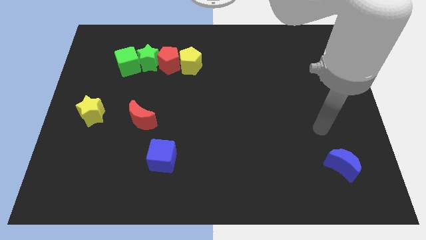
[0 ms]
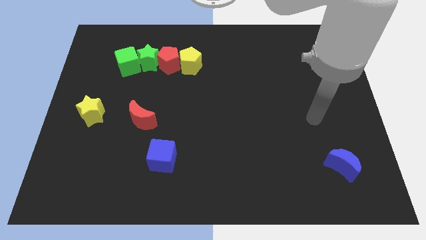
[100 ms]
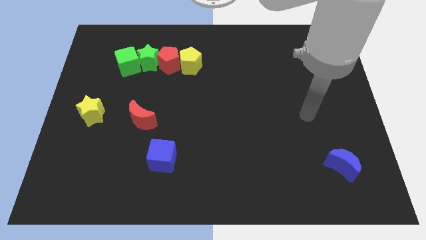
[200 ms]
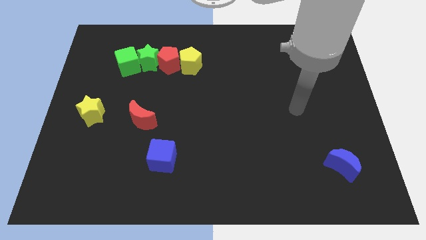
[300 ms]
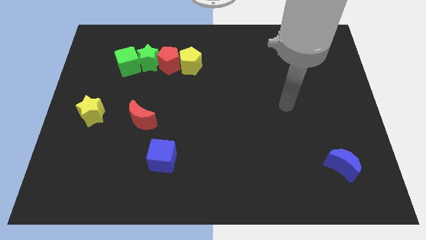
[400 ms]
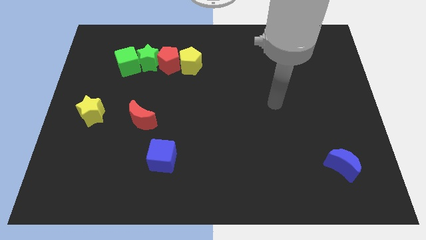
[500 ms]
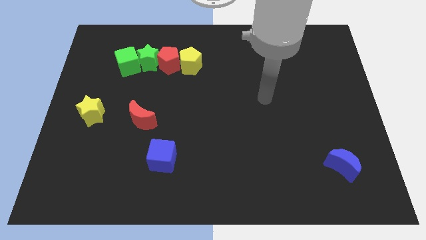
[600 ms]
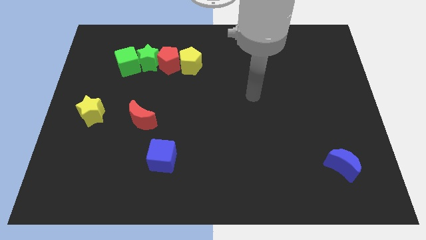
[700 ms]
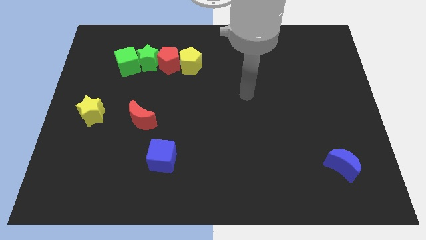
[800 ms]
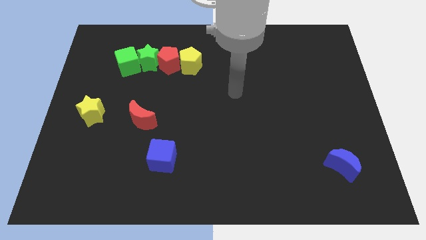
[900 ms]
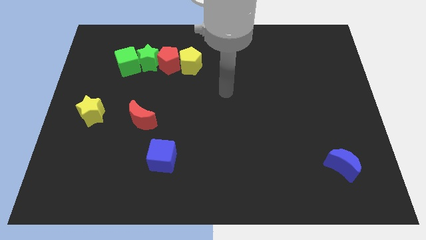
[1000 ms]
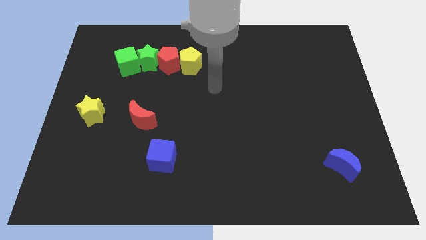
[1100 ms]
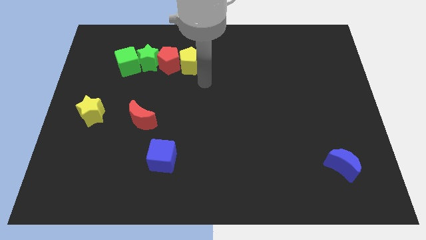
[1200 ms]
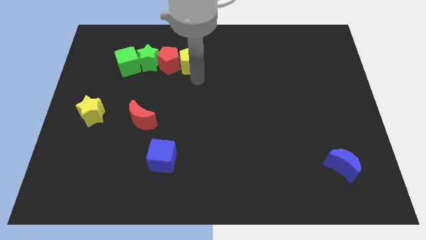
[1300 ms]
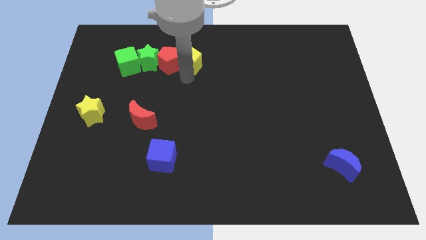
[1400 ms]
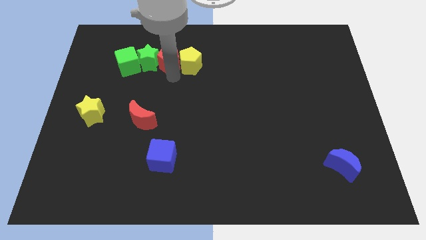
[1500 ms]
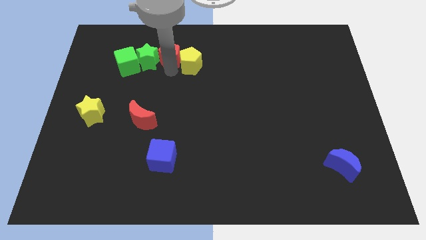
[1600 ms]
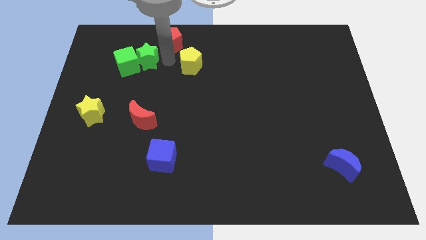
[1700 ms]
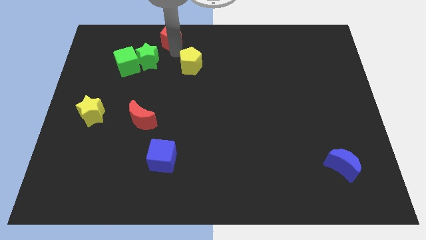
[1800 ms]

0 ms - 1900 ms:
pull the yellow pentagon apart from the red pentagon

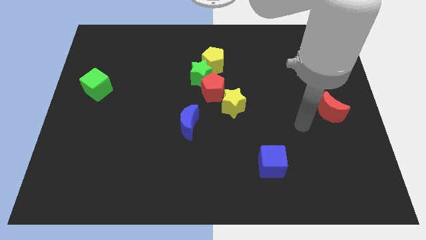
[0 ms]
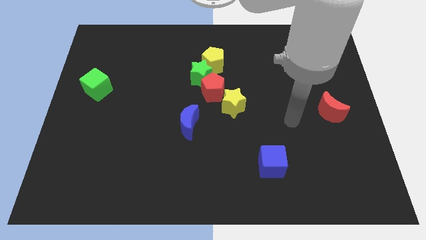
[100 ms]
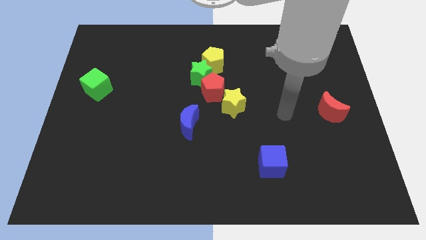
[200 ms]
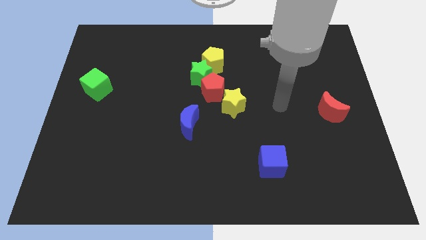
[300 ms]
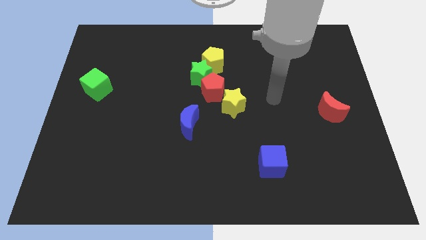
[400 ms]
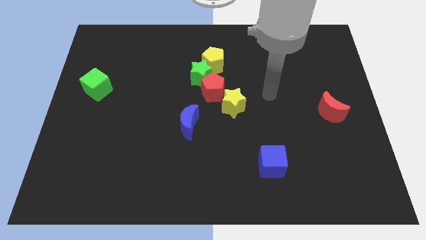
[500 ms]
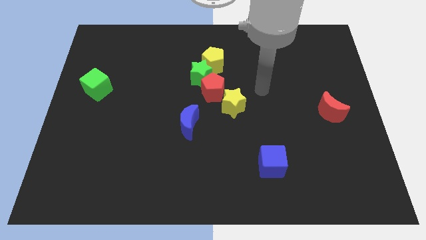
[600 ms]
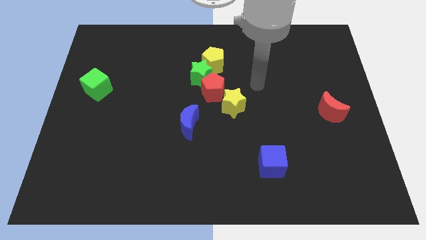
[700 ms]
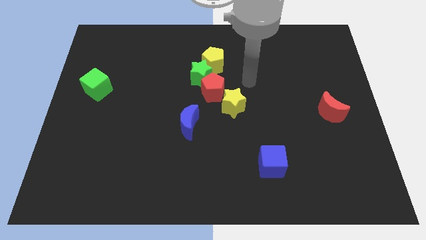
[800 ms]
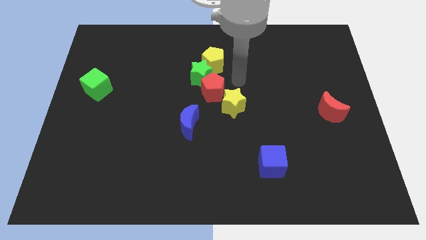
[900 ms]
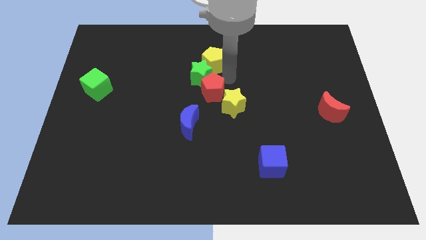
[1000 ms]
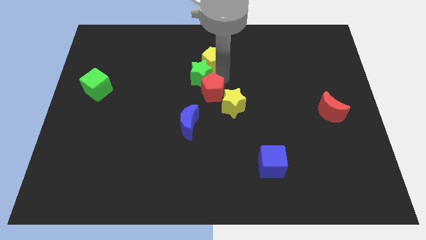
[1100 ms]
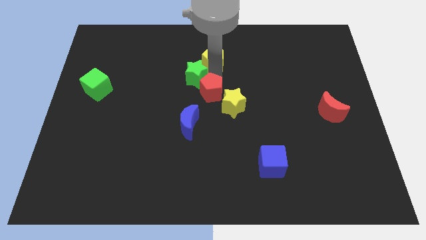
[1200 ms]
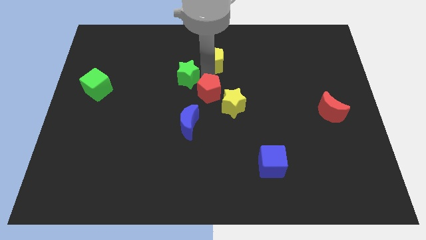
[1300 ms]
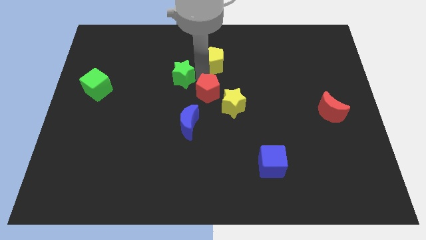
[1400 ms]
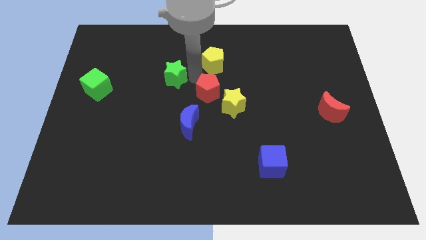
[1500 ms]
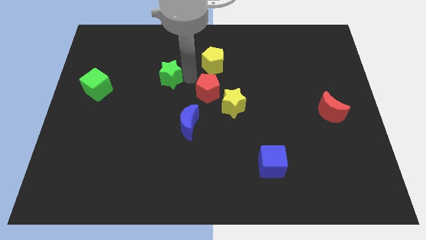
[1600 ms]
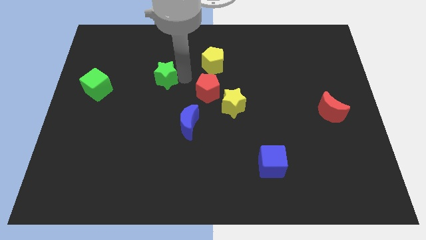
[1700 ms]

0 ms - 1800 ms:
move the green star away from the red pentagon and yellow pentagon

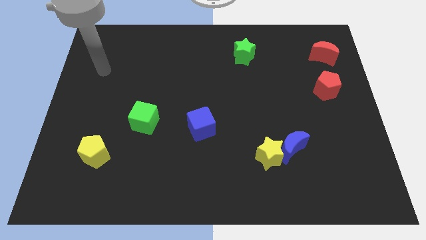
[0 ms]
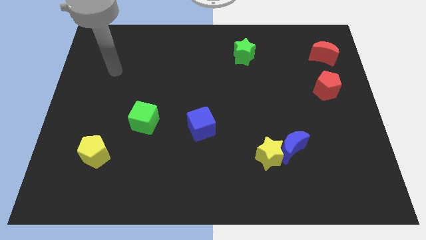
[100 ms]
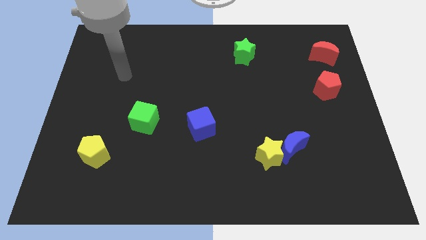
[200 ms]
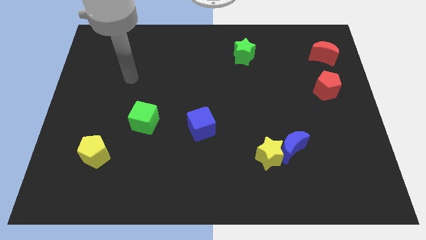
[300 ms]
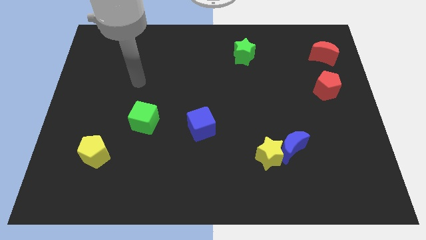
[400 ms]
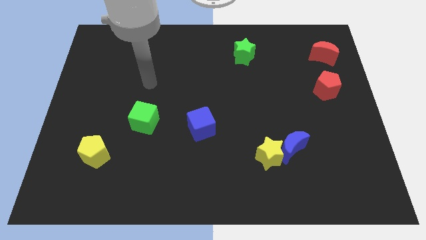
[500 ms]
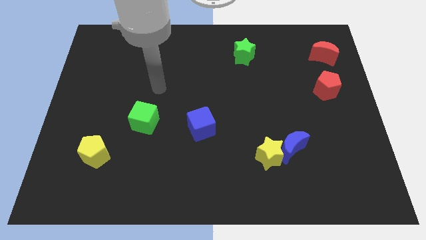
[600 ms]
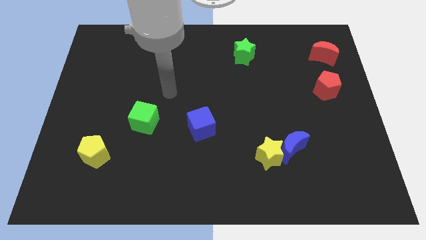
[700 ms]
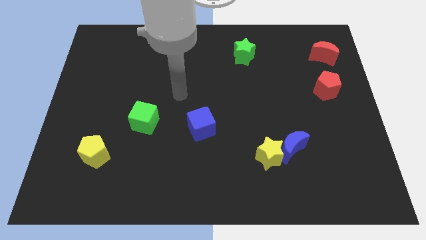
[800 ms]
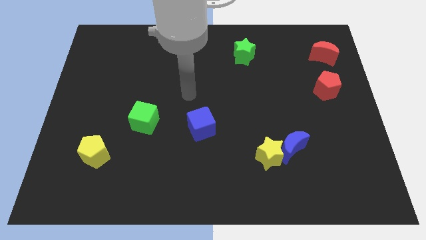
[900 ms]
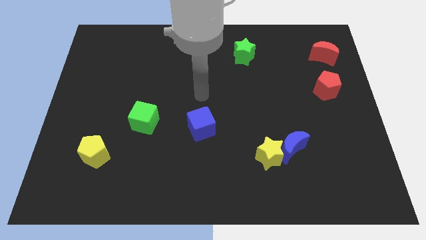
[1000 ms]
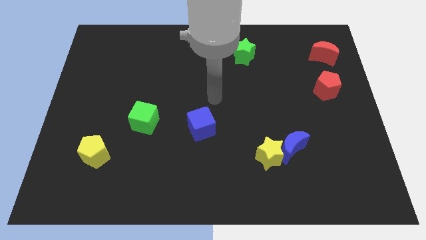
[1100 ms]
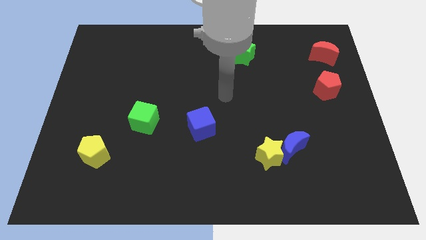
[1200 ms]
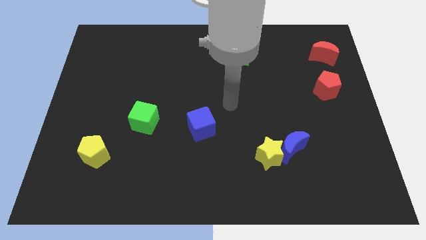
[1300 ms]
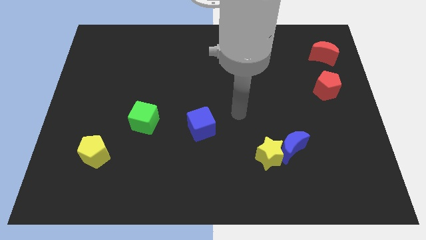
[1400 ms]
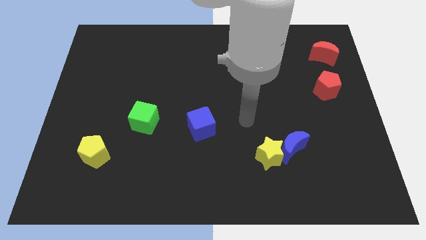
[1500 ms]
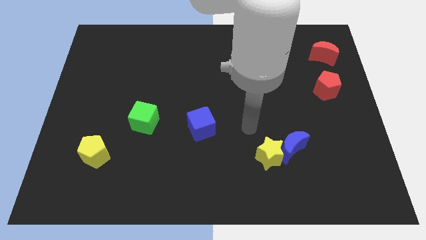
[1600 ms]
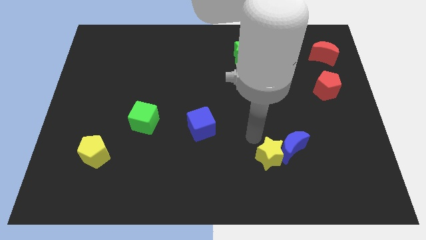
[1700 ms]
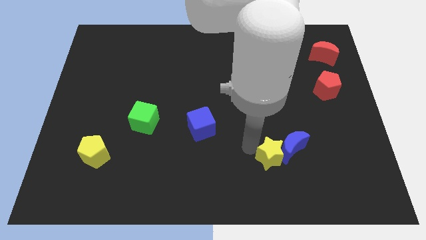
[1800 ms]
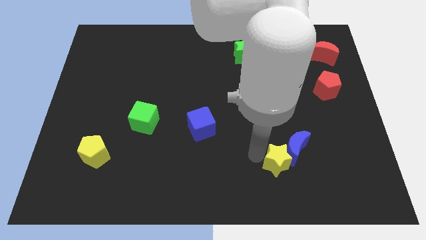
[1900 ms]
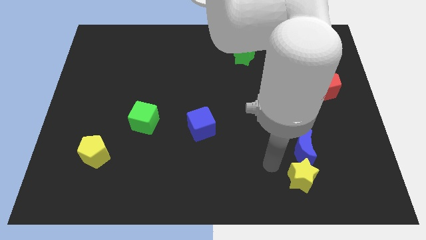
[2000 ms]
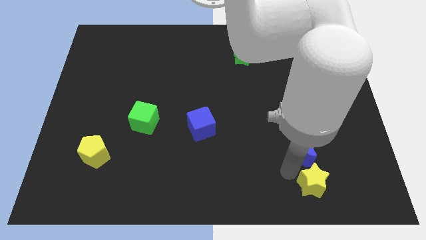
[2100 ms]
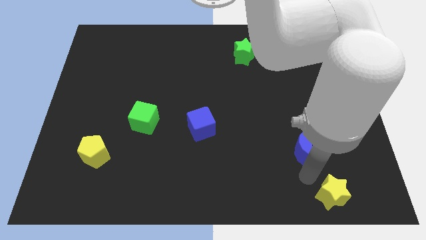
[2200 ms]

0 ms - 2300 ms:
separate the blue moon from the yellow star

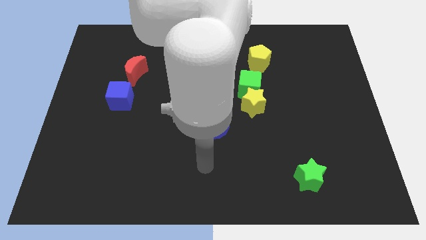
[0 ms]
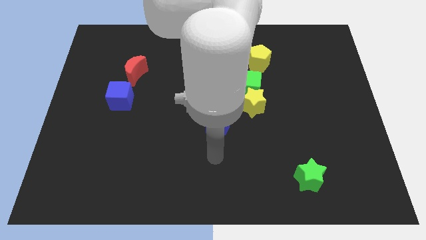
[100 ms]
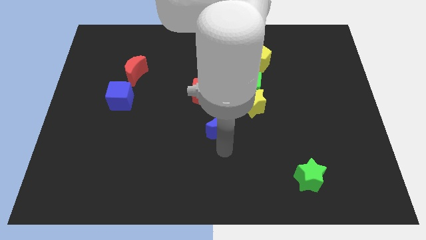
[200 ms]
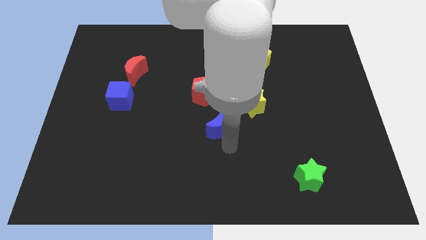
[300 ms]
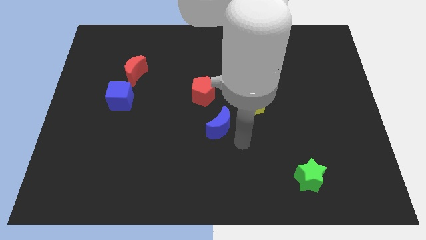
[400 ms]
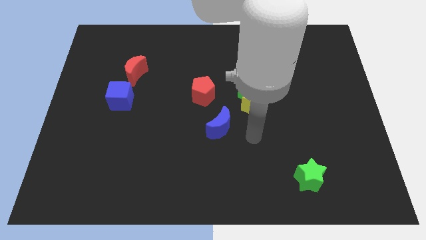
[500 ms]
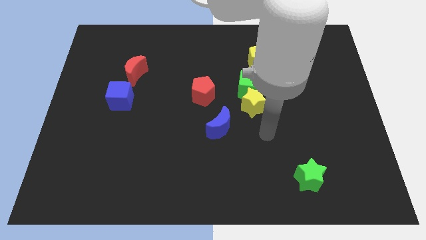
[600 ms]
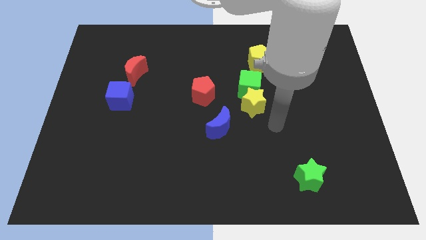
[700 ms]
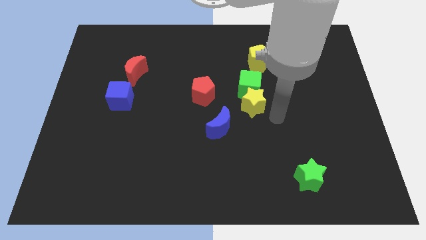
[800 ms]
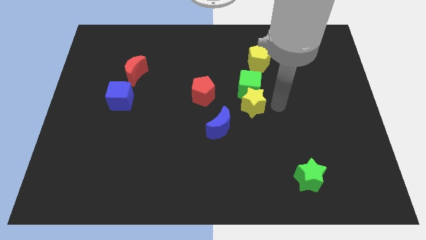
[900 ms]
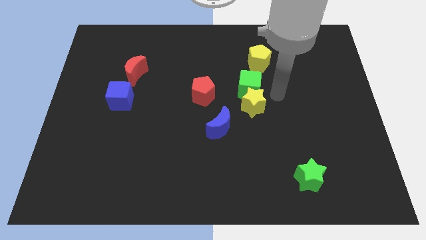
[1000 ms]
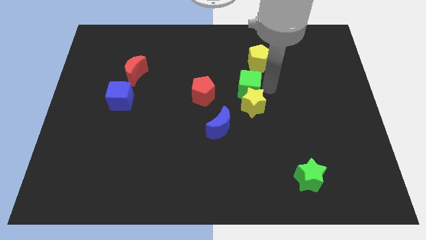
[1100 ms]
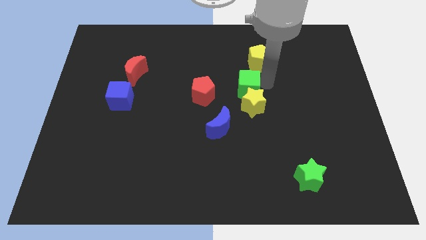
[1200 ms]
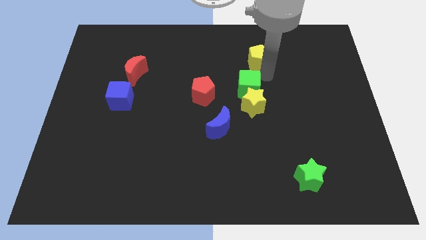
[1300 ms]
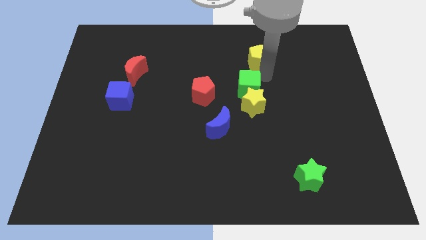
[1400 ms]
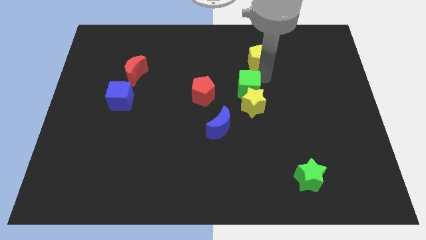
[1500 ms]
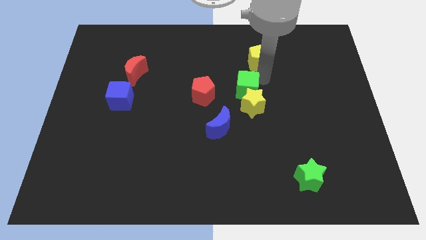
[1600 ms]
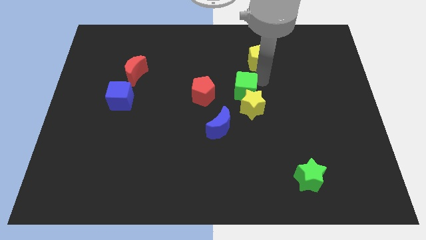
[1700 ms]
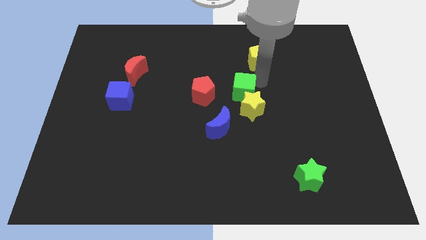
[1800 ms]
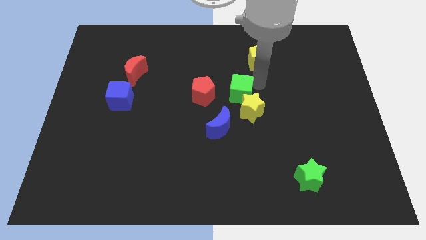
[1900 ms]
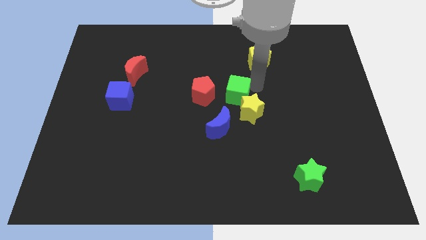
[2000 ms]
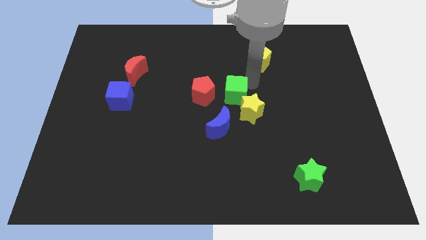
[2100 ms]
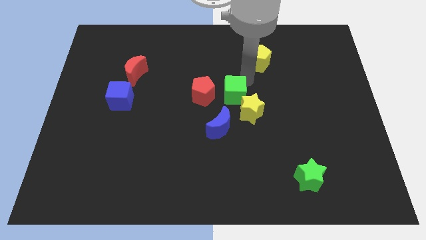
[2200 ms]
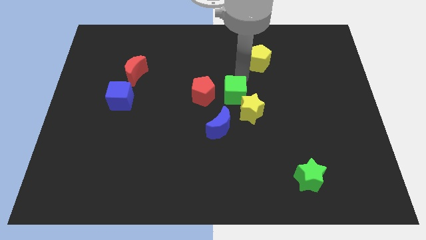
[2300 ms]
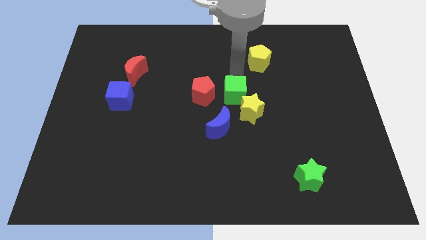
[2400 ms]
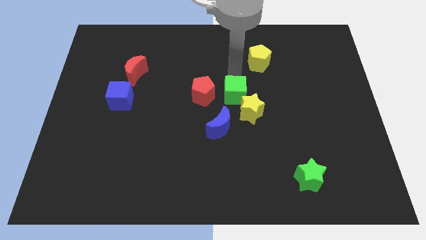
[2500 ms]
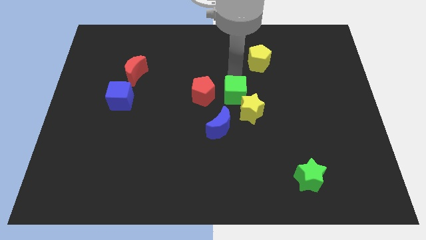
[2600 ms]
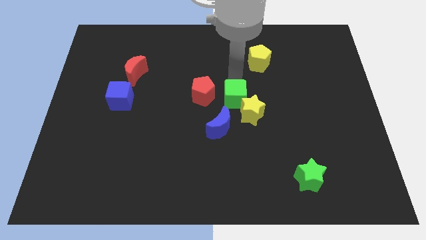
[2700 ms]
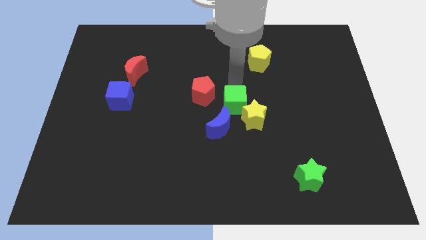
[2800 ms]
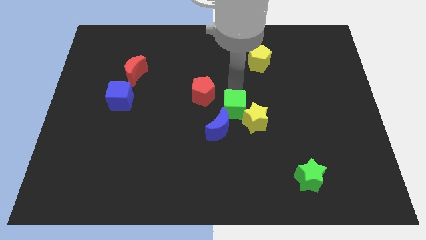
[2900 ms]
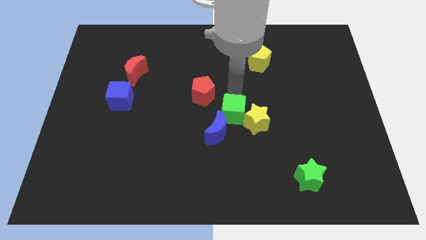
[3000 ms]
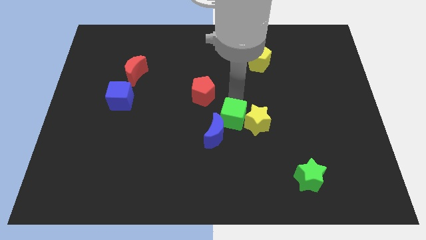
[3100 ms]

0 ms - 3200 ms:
separate the green cube from the yellow star and yellow pentagon

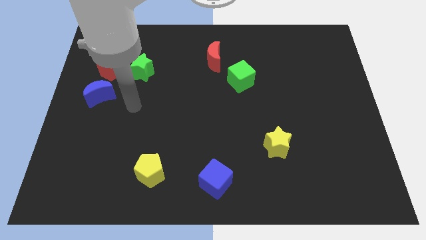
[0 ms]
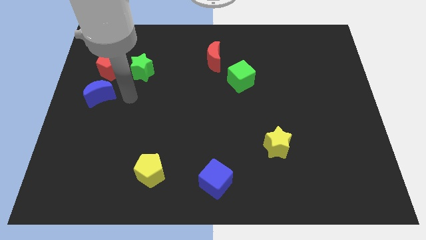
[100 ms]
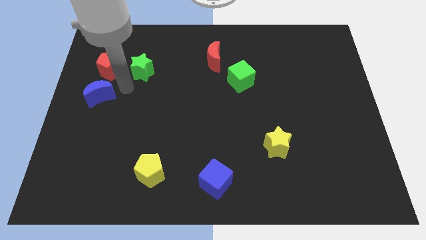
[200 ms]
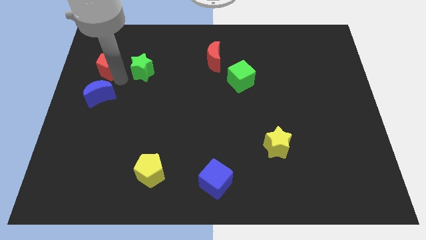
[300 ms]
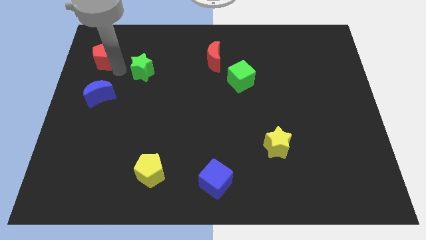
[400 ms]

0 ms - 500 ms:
pull the green star apart from the red pentagon
